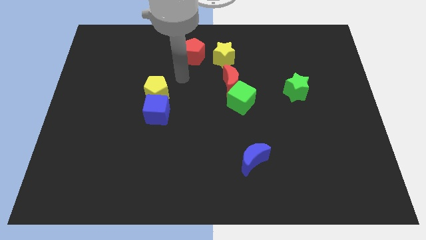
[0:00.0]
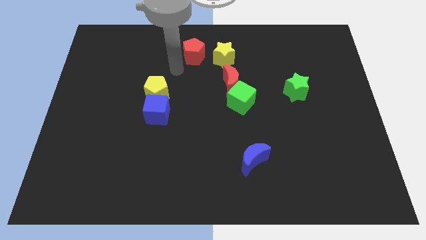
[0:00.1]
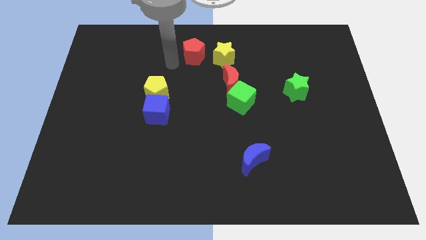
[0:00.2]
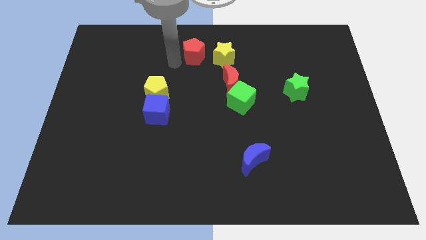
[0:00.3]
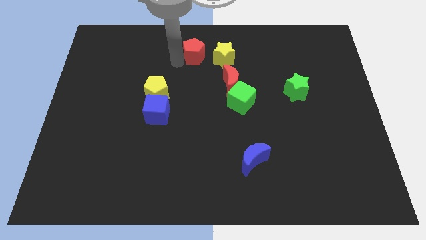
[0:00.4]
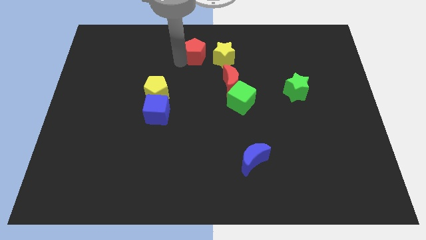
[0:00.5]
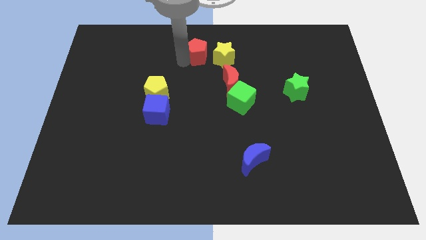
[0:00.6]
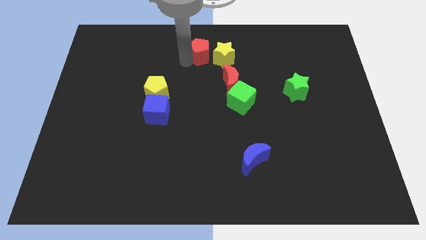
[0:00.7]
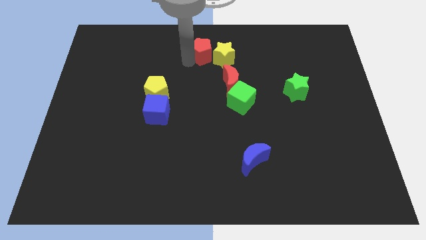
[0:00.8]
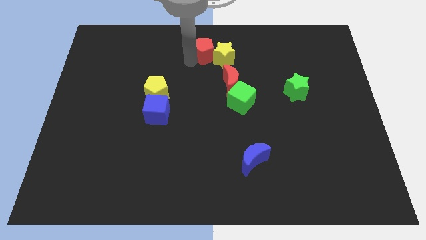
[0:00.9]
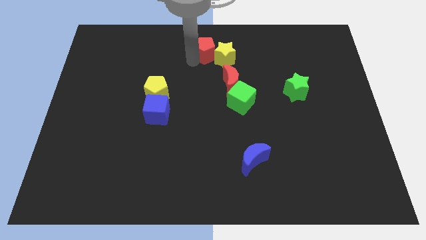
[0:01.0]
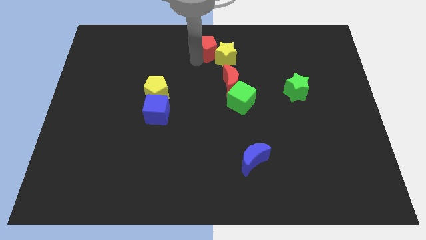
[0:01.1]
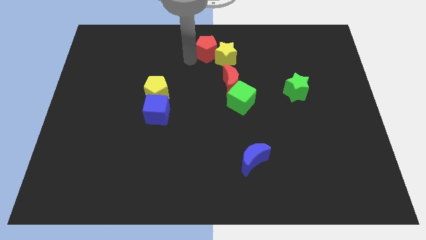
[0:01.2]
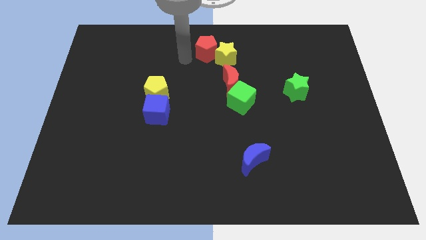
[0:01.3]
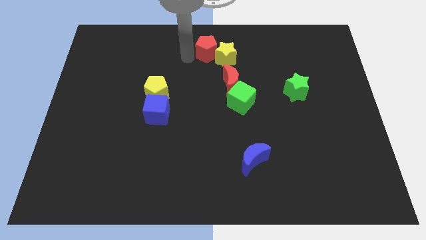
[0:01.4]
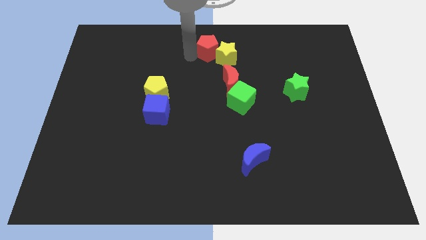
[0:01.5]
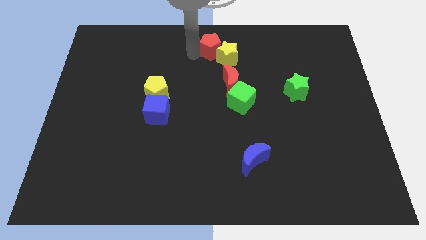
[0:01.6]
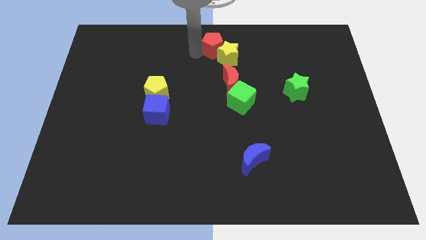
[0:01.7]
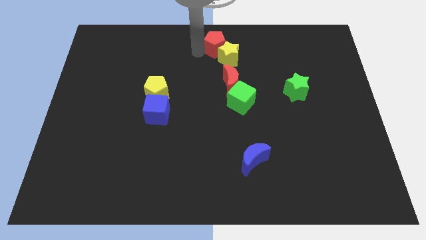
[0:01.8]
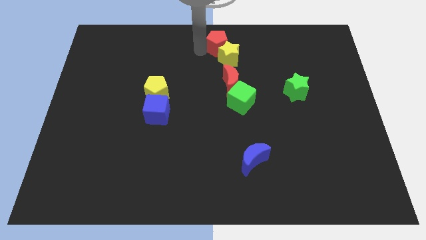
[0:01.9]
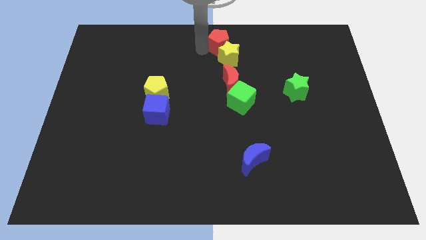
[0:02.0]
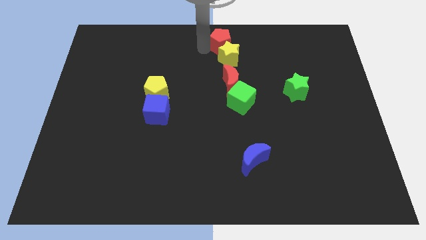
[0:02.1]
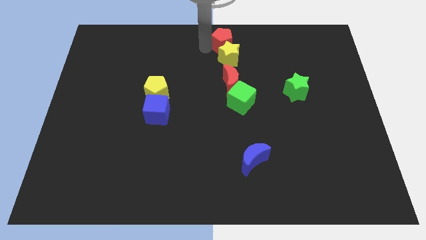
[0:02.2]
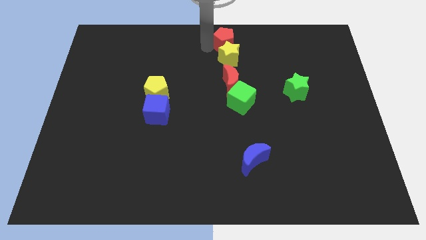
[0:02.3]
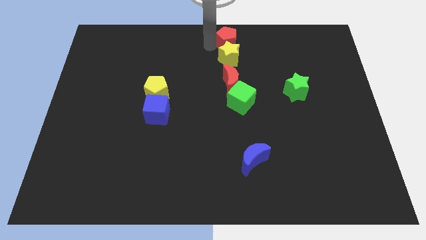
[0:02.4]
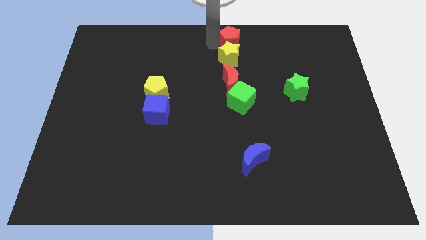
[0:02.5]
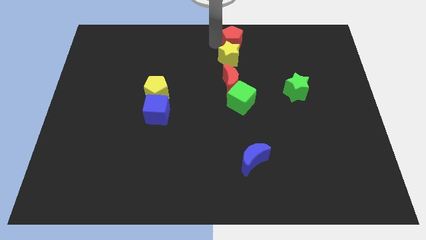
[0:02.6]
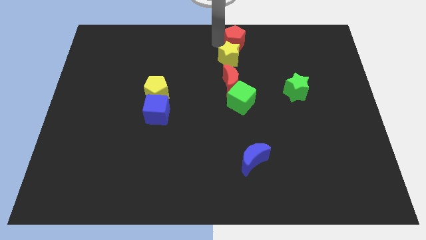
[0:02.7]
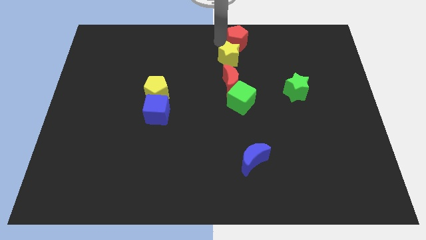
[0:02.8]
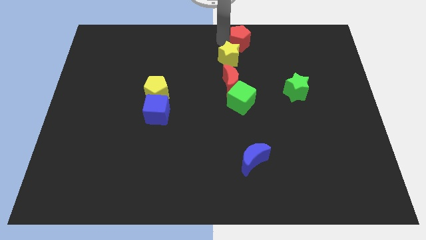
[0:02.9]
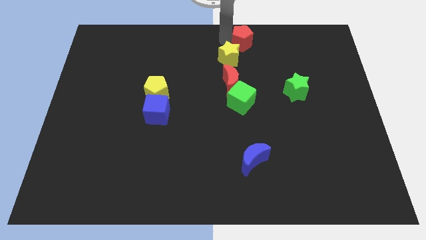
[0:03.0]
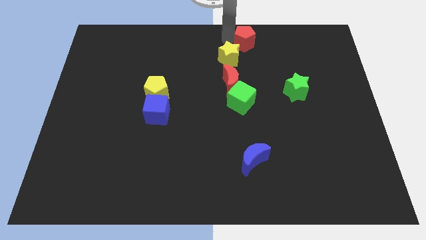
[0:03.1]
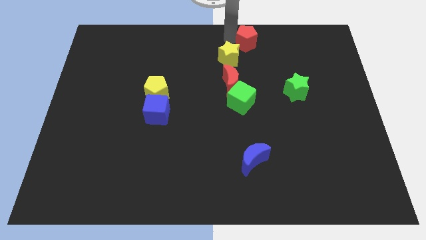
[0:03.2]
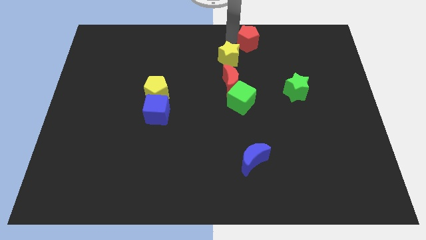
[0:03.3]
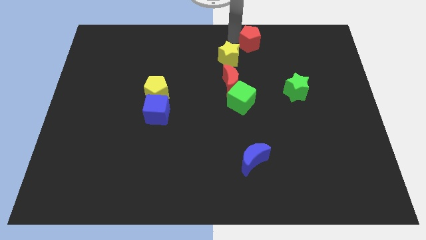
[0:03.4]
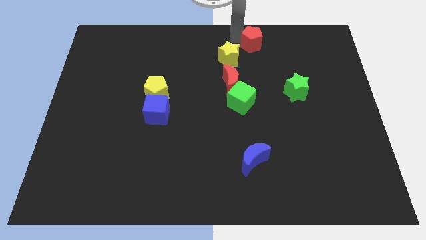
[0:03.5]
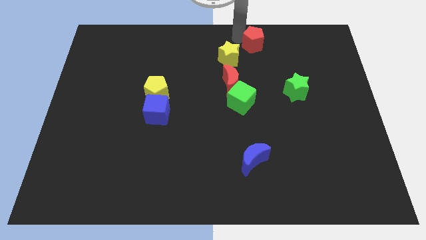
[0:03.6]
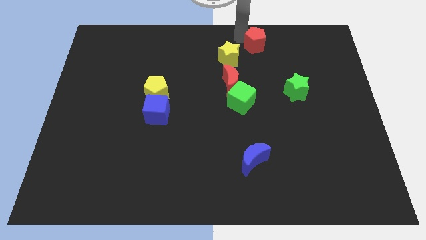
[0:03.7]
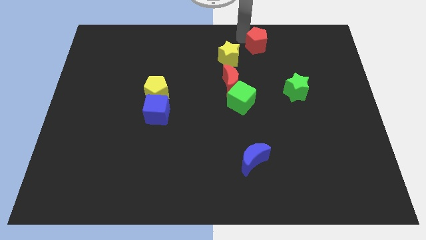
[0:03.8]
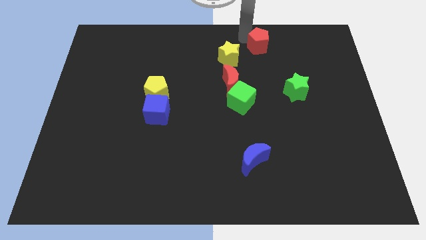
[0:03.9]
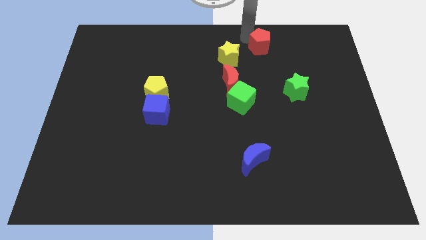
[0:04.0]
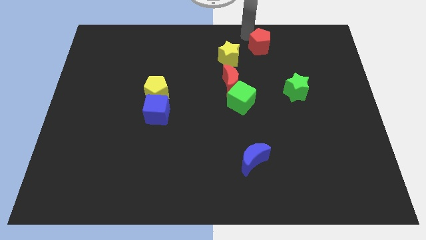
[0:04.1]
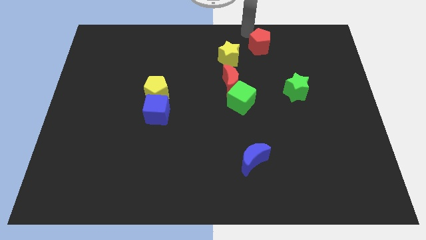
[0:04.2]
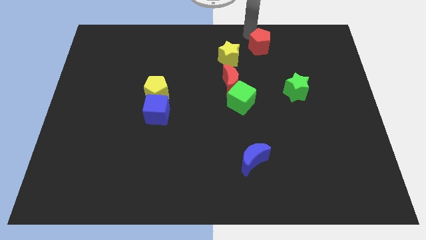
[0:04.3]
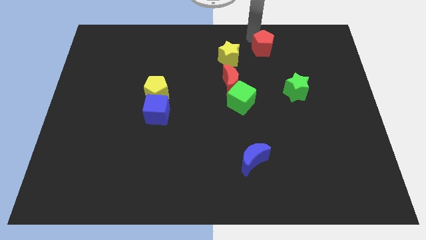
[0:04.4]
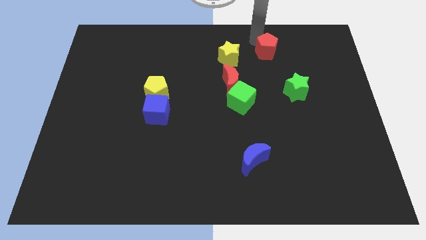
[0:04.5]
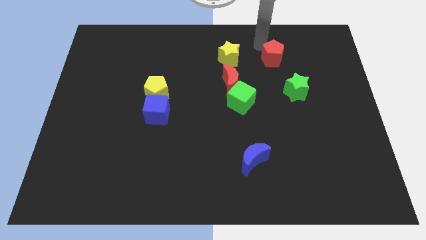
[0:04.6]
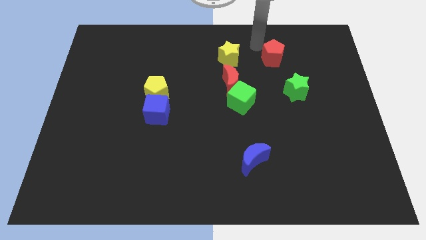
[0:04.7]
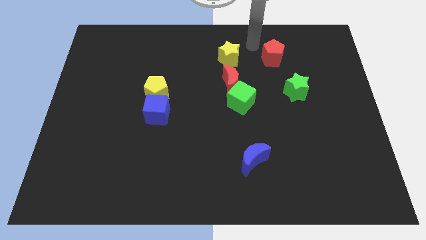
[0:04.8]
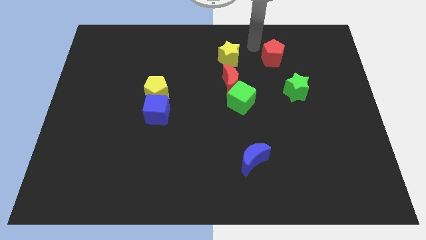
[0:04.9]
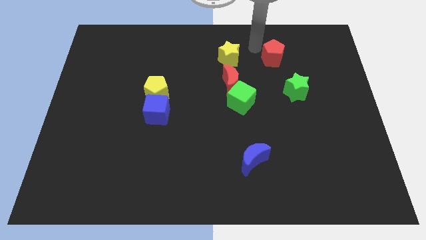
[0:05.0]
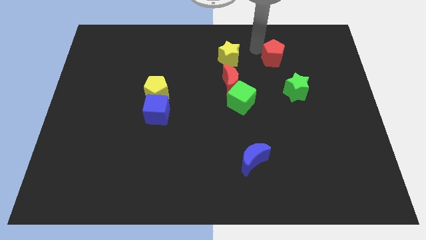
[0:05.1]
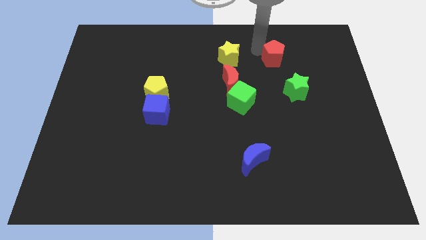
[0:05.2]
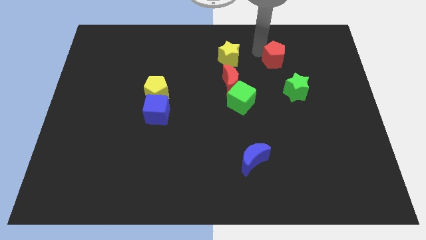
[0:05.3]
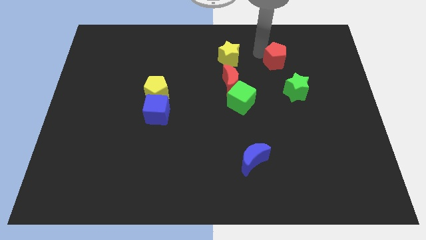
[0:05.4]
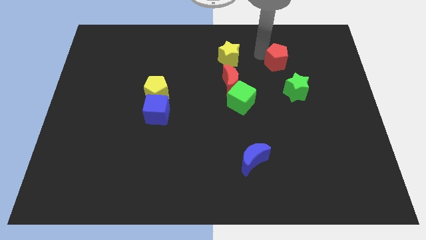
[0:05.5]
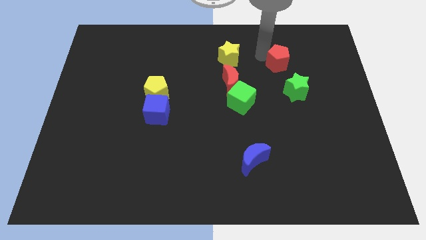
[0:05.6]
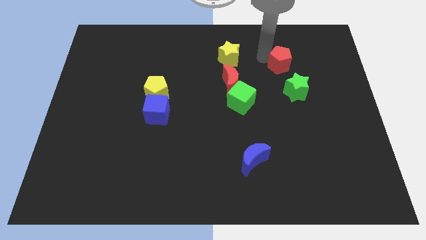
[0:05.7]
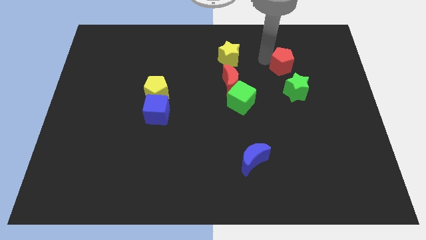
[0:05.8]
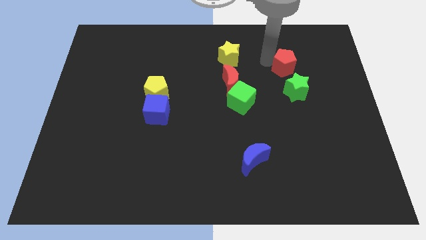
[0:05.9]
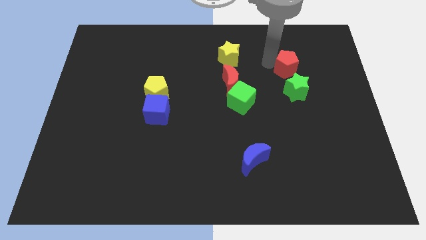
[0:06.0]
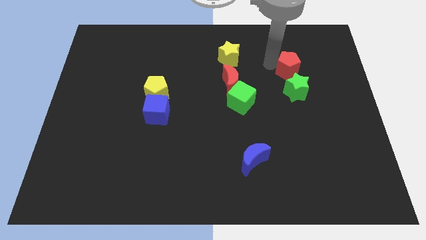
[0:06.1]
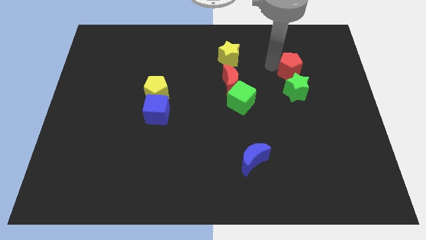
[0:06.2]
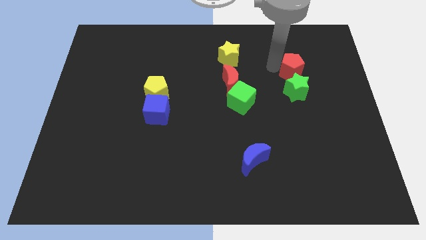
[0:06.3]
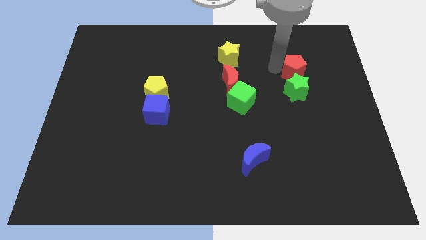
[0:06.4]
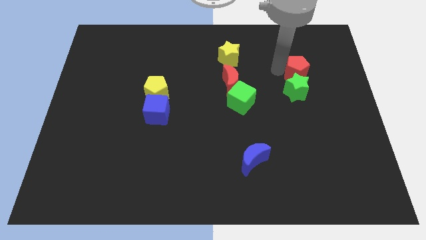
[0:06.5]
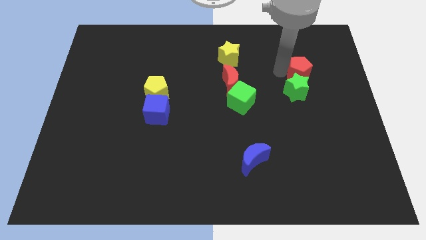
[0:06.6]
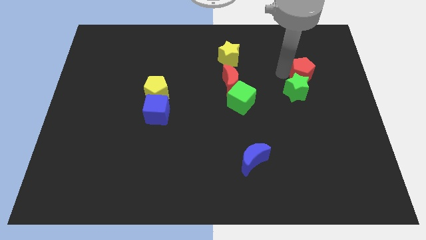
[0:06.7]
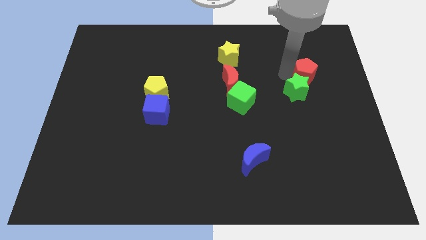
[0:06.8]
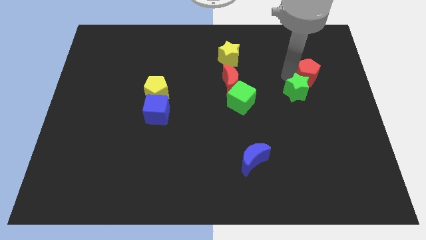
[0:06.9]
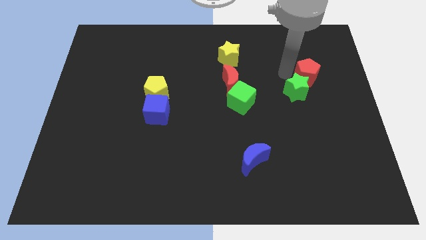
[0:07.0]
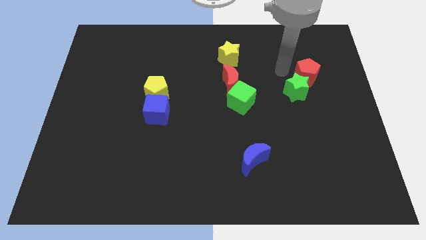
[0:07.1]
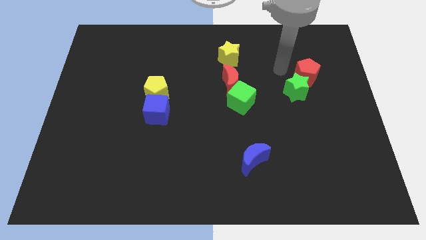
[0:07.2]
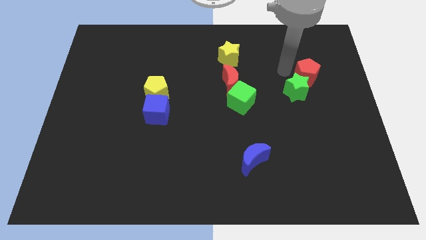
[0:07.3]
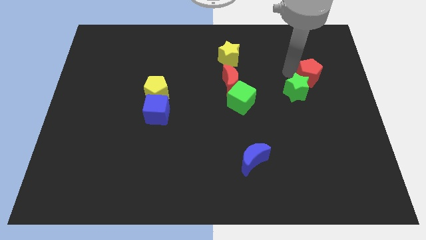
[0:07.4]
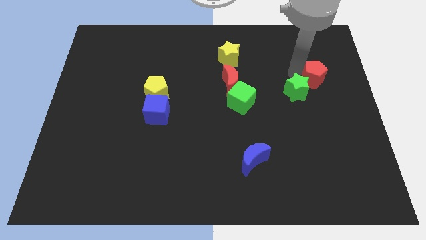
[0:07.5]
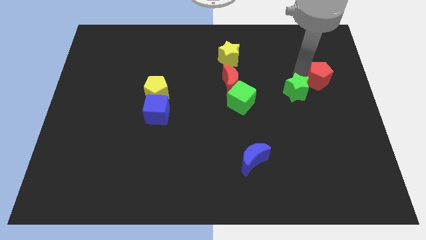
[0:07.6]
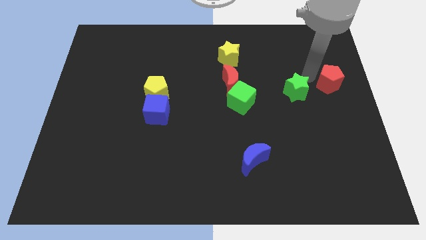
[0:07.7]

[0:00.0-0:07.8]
put the red pentagon to the center right
